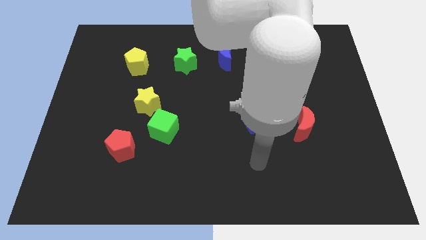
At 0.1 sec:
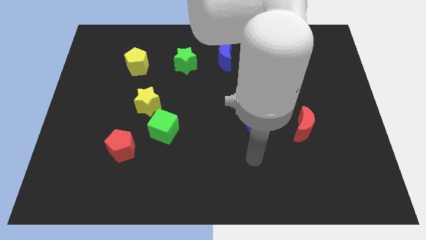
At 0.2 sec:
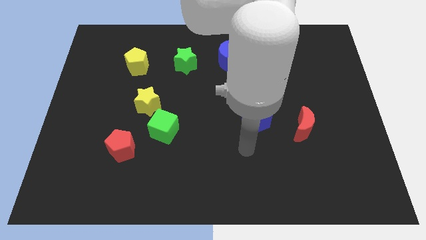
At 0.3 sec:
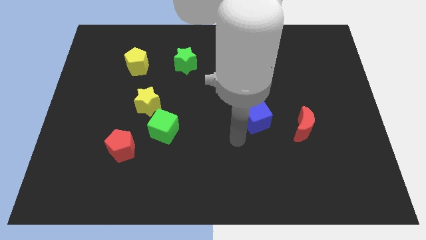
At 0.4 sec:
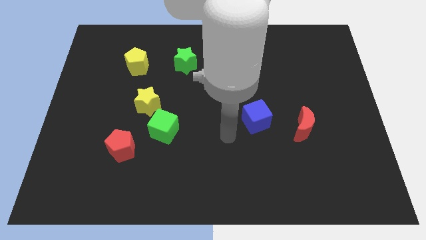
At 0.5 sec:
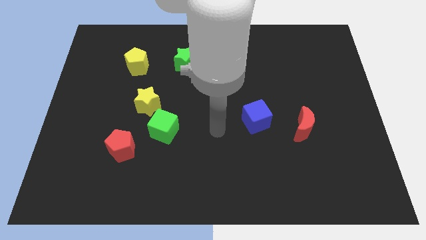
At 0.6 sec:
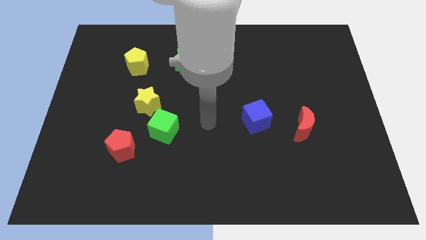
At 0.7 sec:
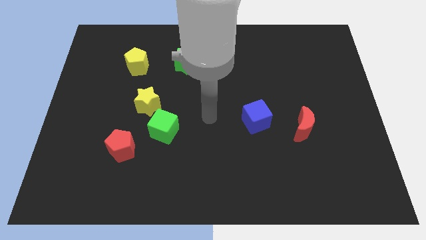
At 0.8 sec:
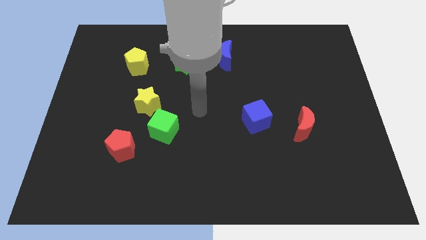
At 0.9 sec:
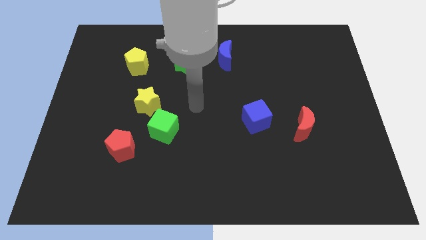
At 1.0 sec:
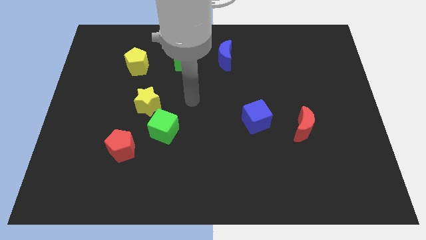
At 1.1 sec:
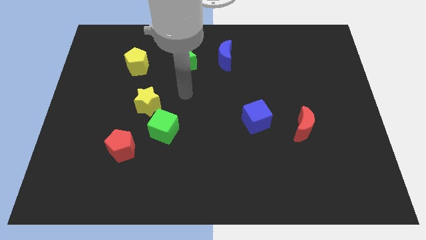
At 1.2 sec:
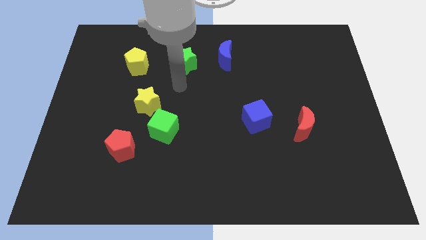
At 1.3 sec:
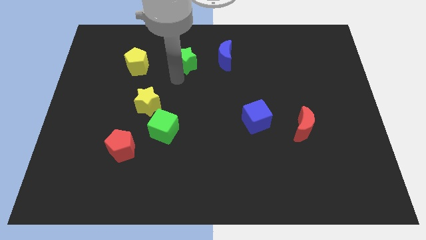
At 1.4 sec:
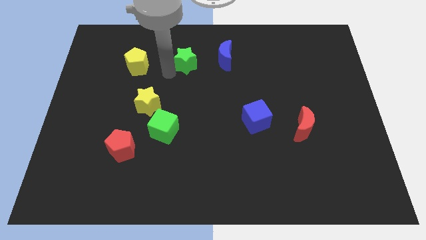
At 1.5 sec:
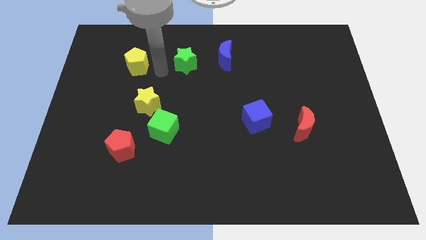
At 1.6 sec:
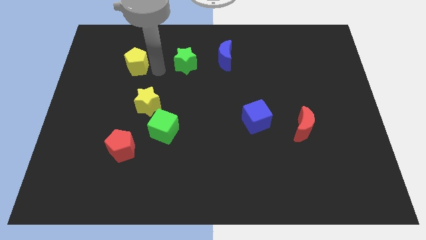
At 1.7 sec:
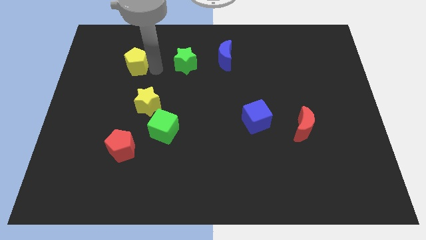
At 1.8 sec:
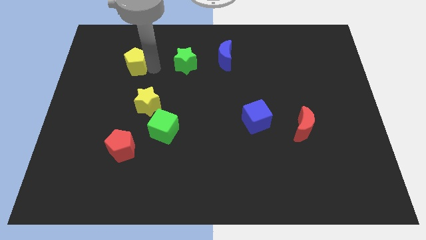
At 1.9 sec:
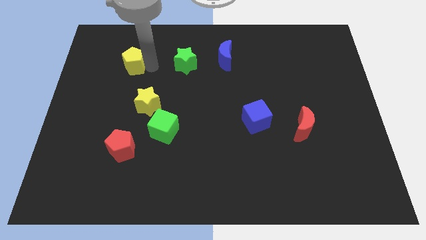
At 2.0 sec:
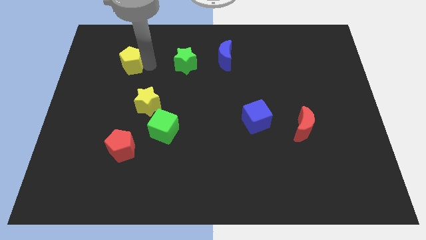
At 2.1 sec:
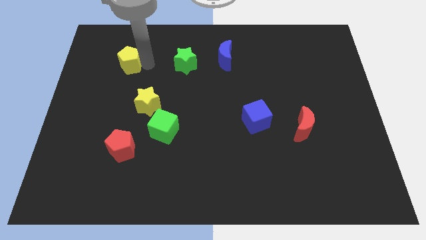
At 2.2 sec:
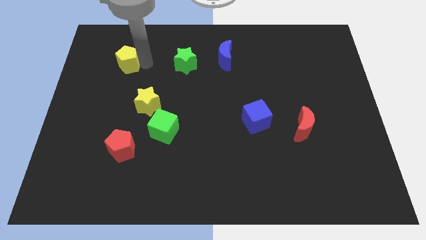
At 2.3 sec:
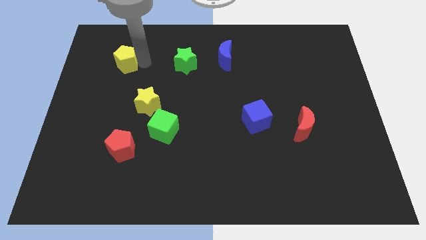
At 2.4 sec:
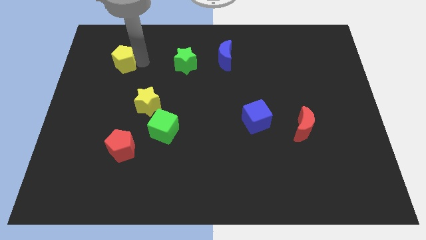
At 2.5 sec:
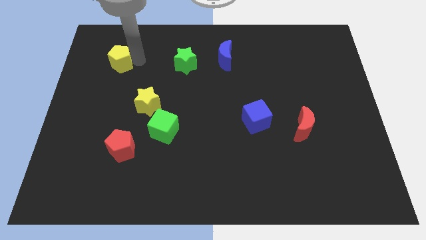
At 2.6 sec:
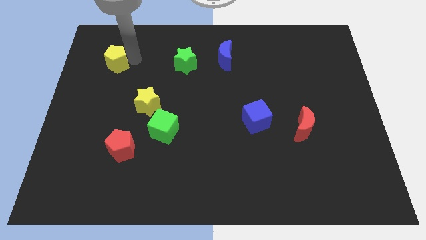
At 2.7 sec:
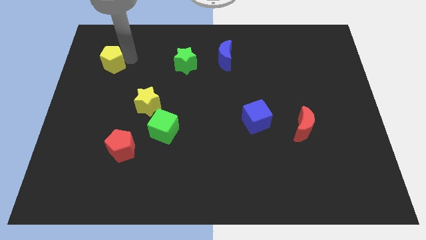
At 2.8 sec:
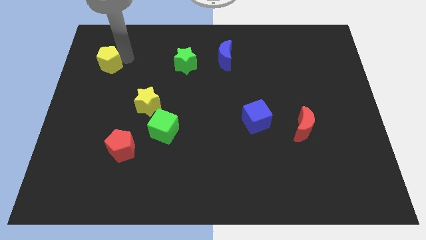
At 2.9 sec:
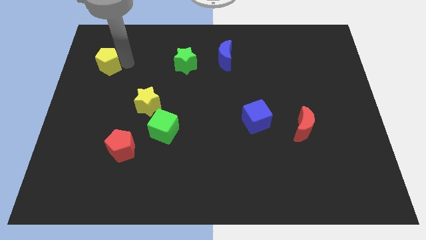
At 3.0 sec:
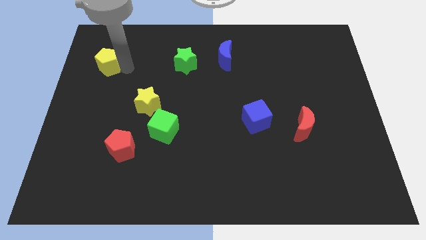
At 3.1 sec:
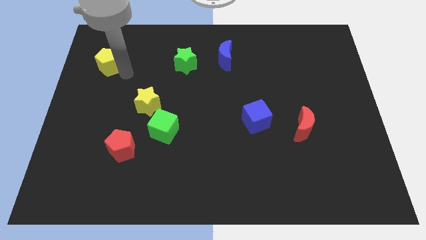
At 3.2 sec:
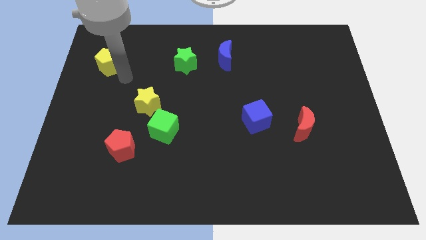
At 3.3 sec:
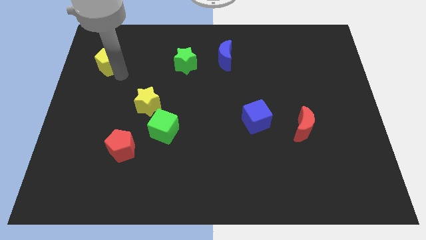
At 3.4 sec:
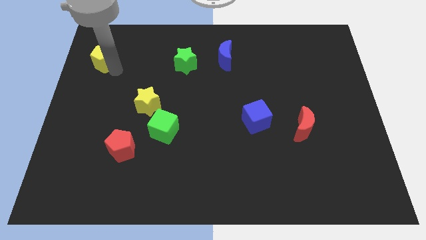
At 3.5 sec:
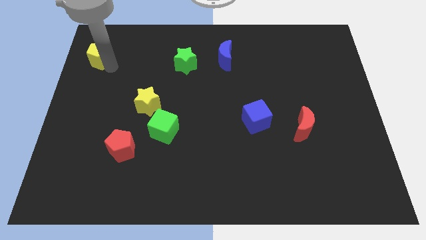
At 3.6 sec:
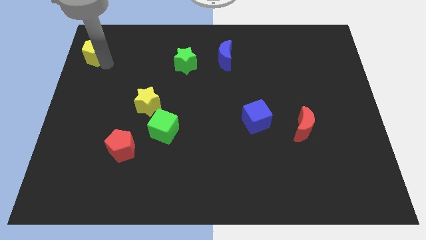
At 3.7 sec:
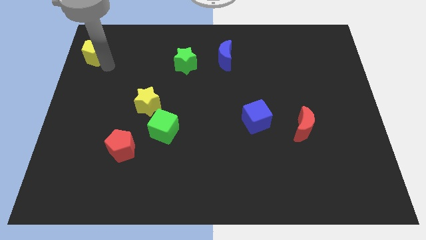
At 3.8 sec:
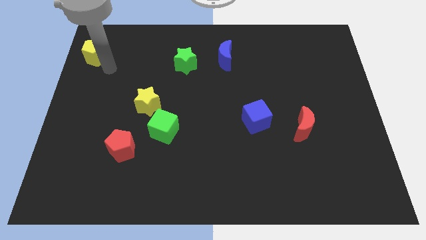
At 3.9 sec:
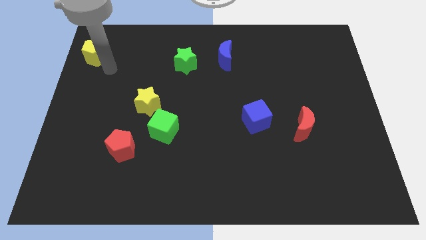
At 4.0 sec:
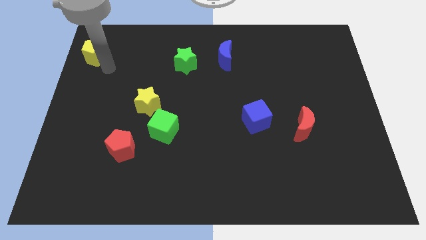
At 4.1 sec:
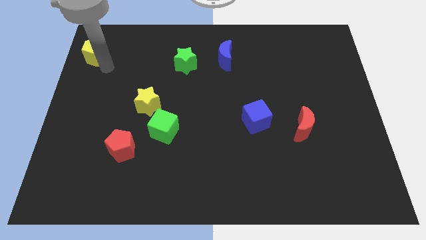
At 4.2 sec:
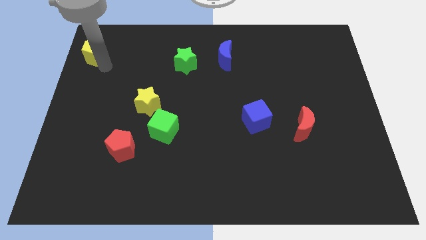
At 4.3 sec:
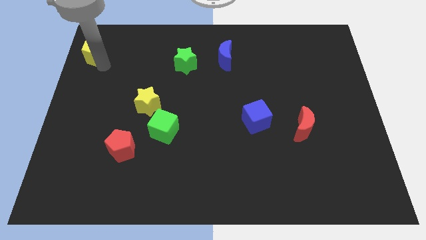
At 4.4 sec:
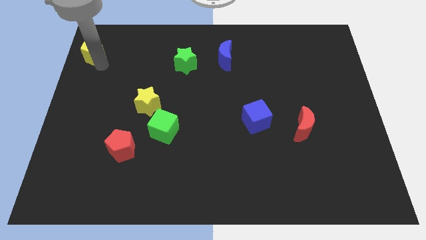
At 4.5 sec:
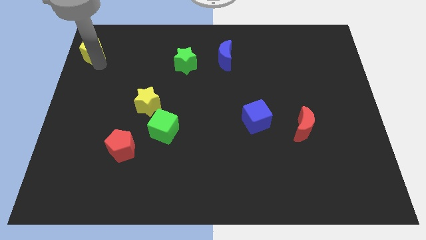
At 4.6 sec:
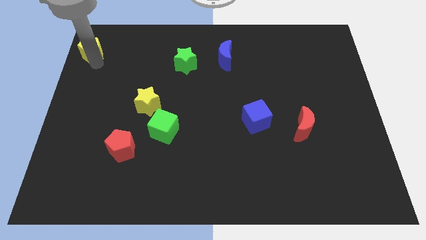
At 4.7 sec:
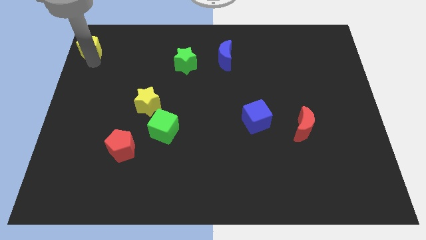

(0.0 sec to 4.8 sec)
move the yellow pentagon to the top left of the board

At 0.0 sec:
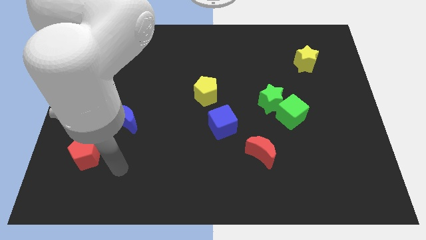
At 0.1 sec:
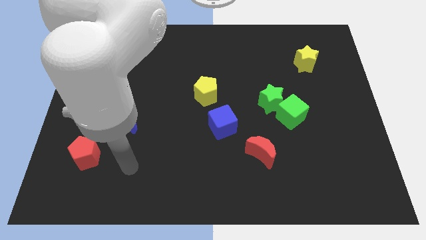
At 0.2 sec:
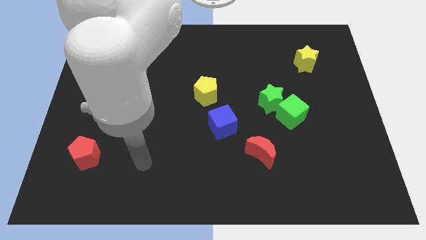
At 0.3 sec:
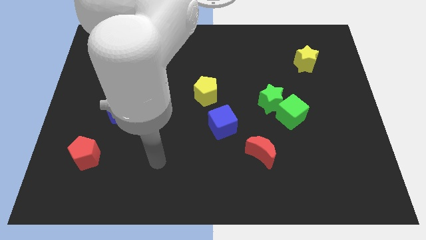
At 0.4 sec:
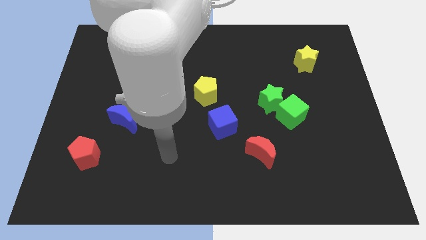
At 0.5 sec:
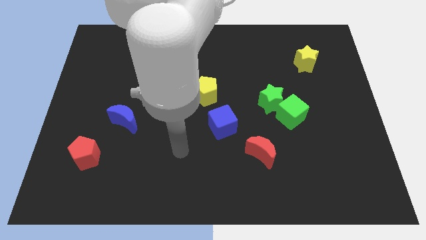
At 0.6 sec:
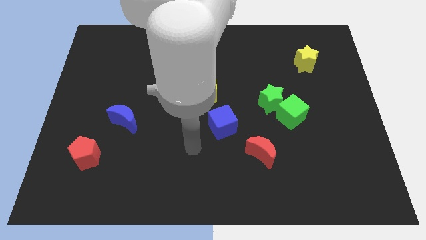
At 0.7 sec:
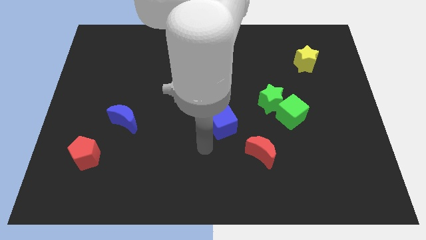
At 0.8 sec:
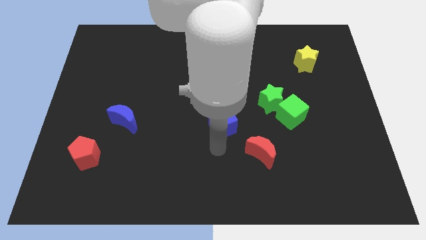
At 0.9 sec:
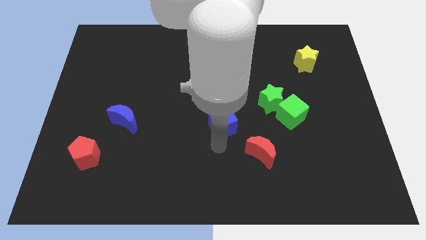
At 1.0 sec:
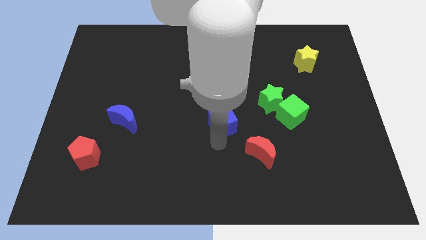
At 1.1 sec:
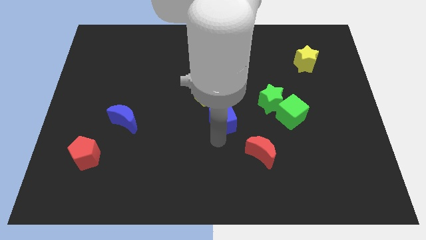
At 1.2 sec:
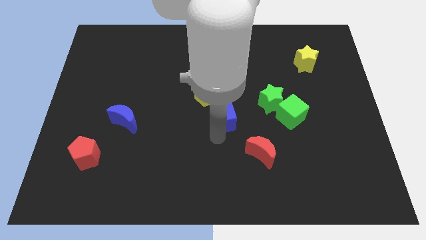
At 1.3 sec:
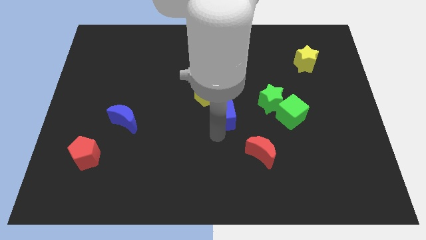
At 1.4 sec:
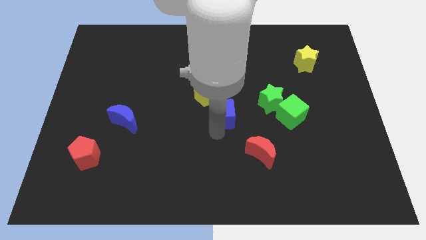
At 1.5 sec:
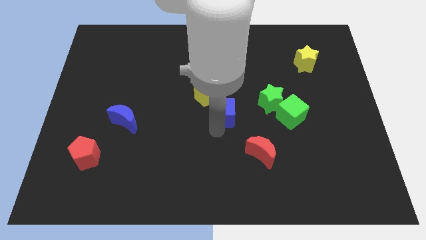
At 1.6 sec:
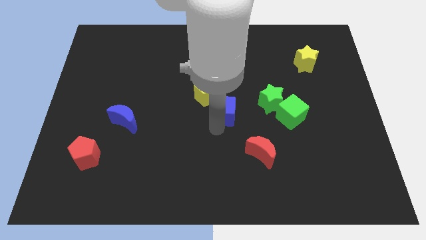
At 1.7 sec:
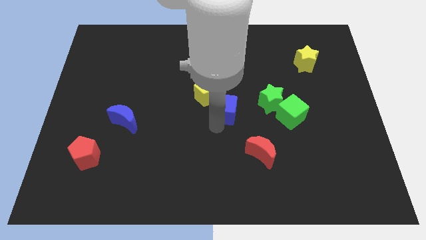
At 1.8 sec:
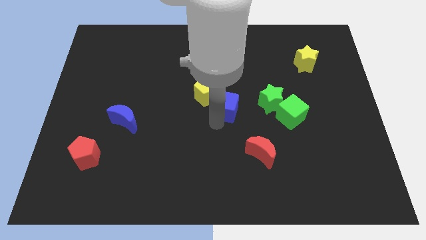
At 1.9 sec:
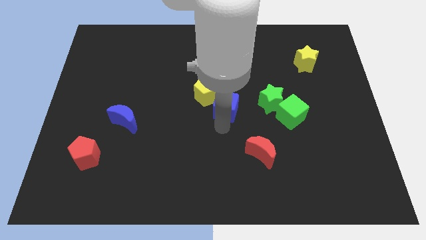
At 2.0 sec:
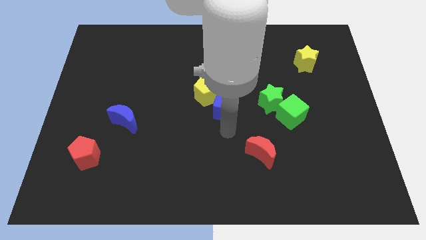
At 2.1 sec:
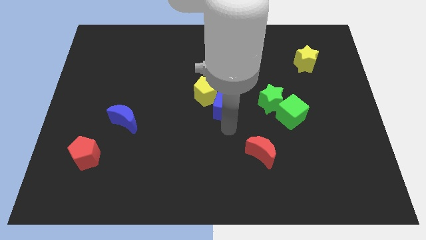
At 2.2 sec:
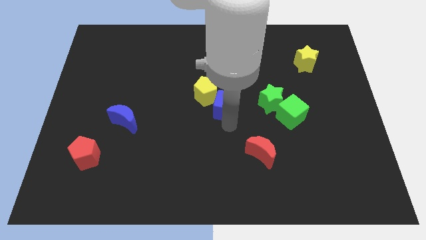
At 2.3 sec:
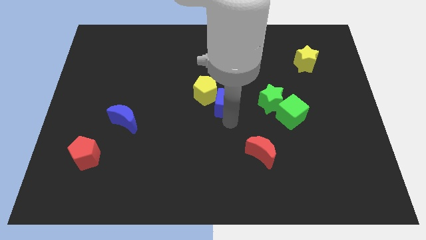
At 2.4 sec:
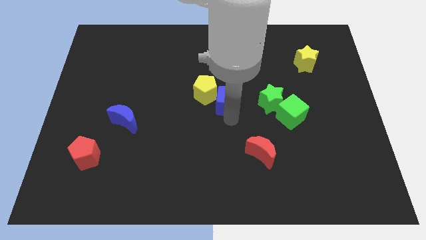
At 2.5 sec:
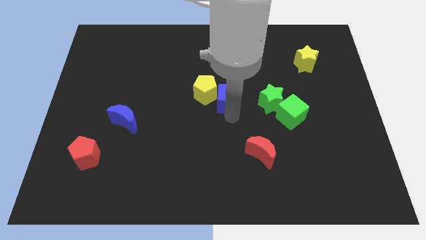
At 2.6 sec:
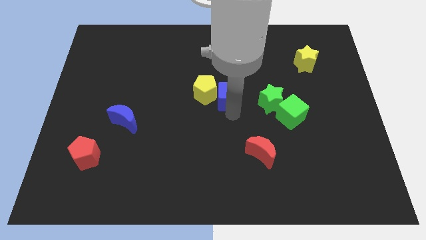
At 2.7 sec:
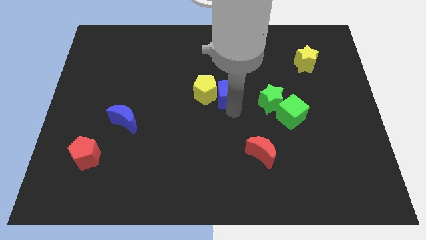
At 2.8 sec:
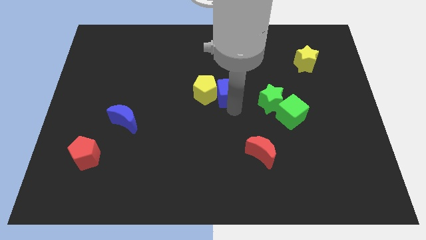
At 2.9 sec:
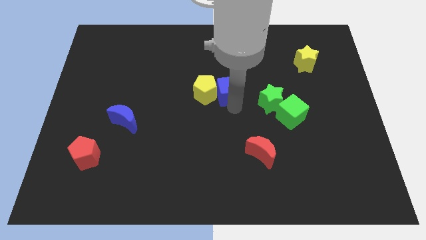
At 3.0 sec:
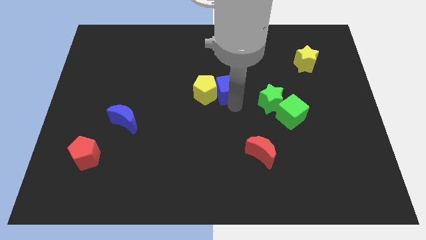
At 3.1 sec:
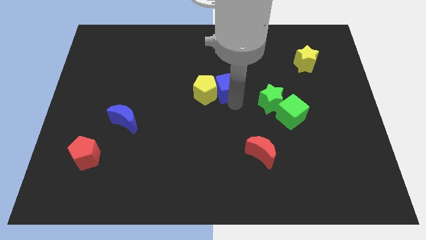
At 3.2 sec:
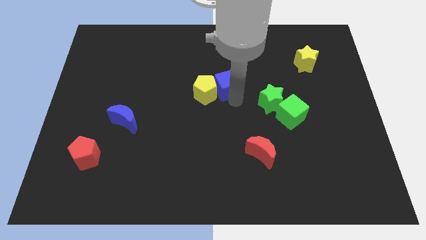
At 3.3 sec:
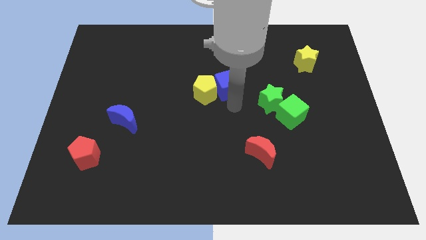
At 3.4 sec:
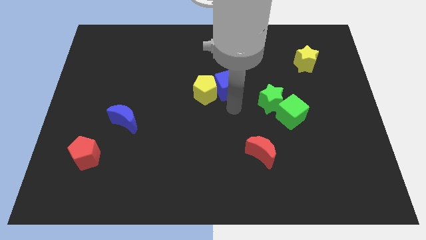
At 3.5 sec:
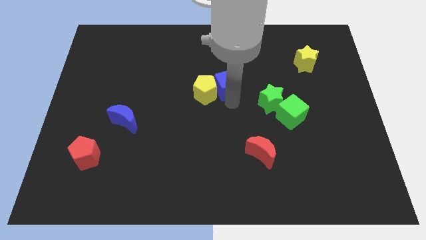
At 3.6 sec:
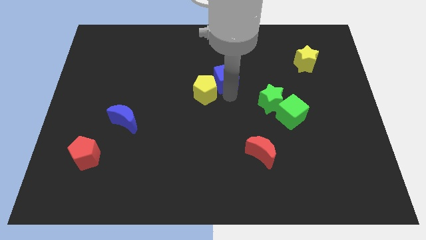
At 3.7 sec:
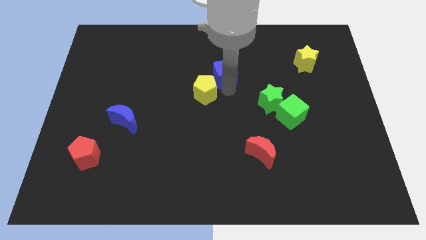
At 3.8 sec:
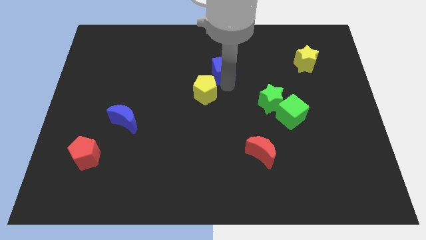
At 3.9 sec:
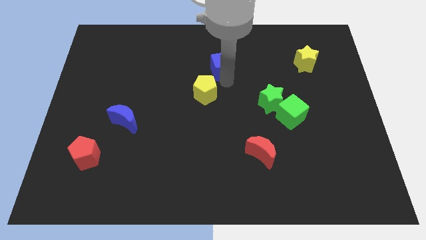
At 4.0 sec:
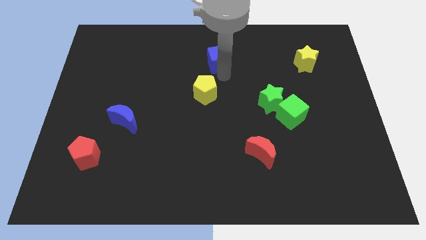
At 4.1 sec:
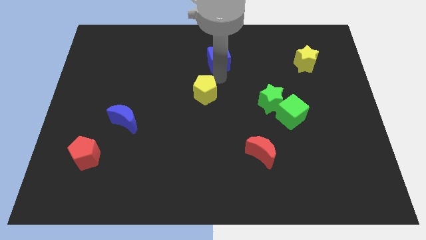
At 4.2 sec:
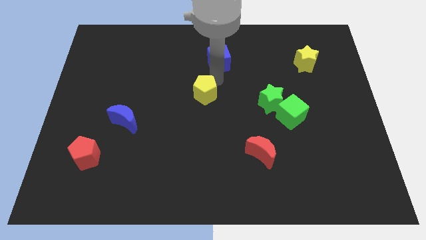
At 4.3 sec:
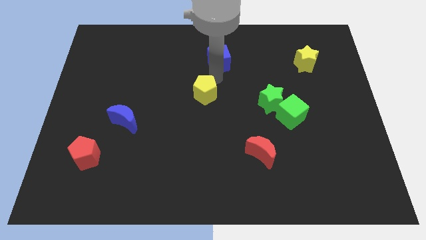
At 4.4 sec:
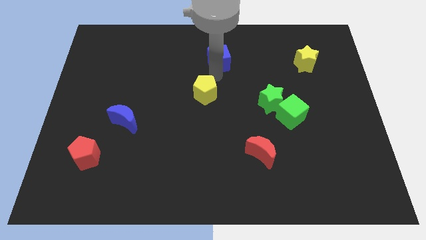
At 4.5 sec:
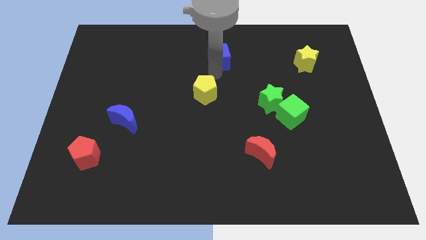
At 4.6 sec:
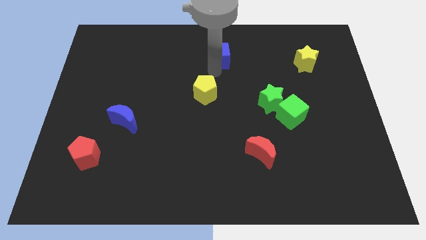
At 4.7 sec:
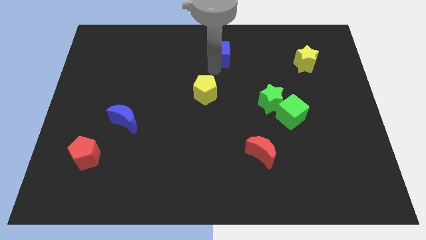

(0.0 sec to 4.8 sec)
push the blue cube to the towards your base
